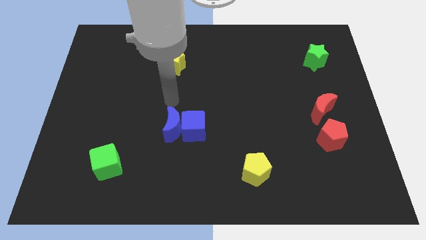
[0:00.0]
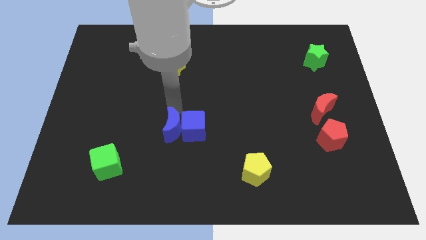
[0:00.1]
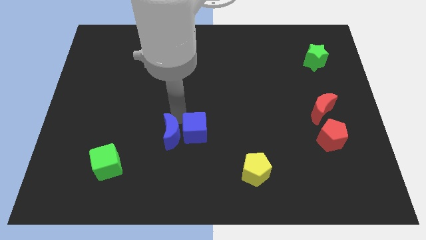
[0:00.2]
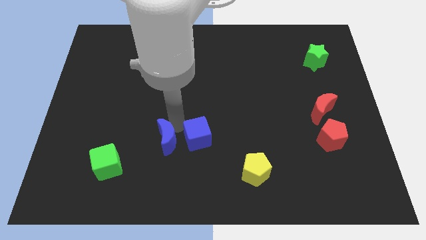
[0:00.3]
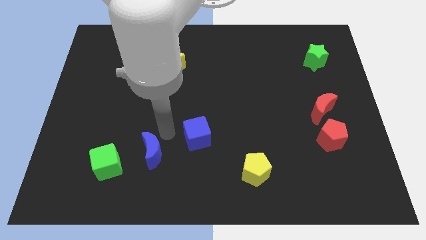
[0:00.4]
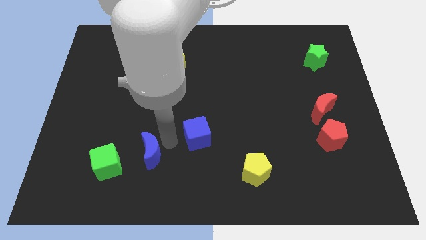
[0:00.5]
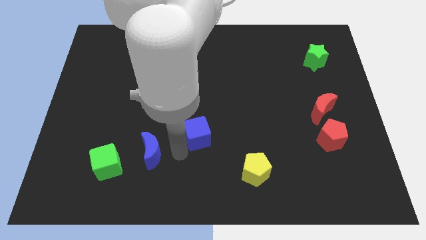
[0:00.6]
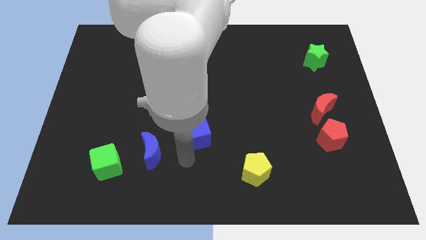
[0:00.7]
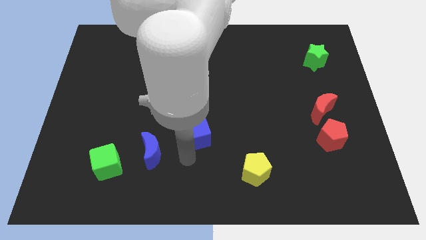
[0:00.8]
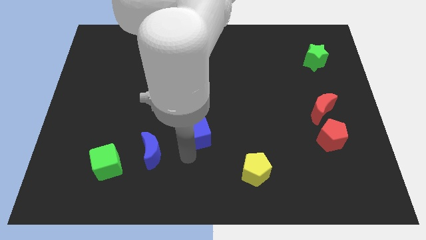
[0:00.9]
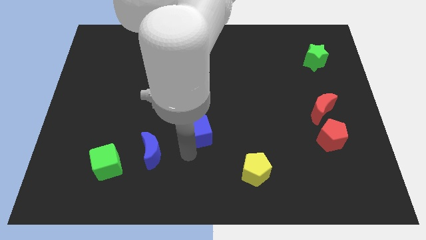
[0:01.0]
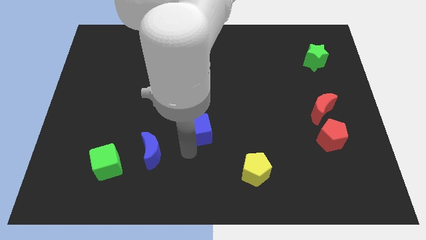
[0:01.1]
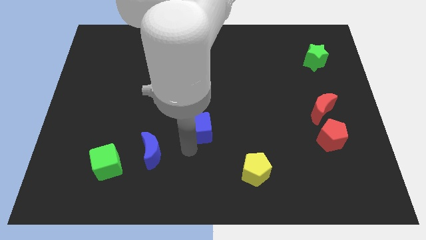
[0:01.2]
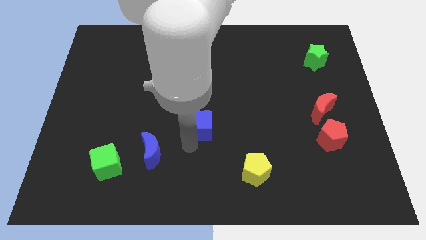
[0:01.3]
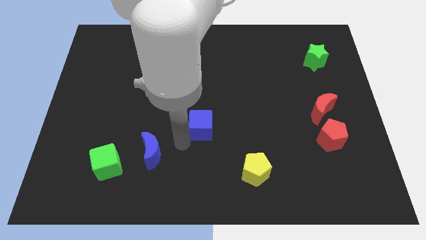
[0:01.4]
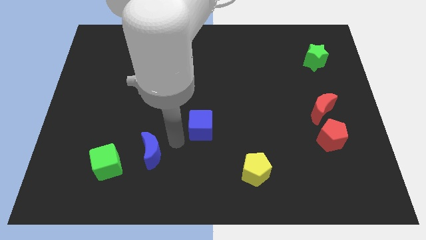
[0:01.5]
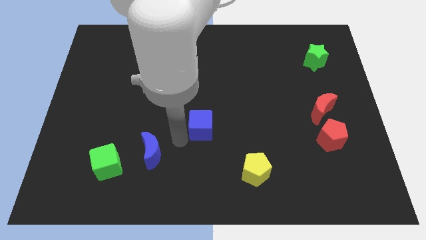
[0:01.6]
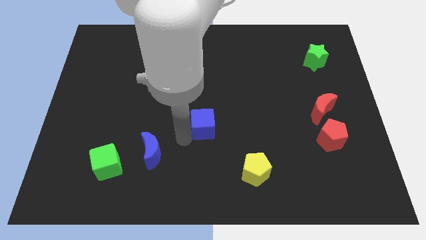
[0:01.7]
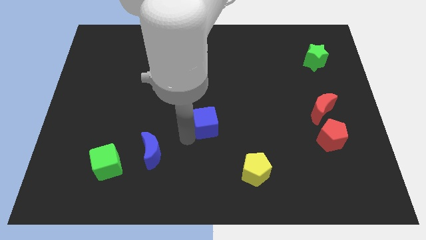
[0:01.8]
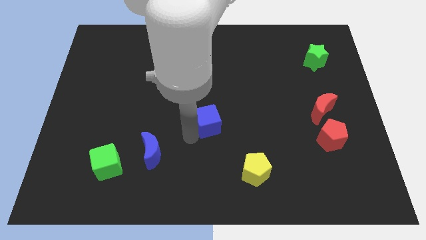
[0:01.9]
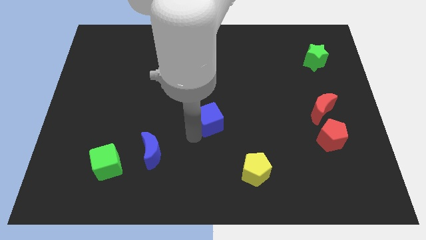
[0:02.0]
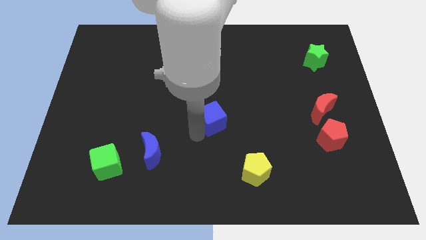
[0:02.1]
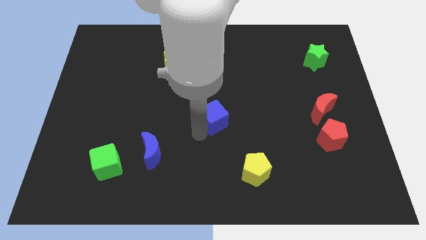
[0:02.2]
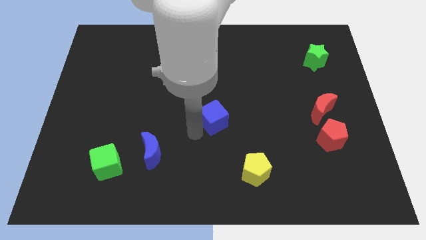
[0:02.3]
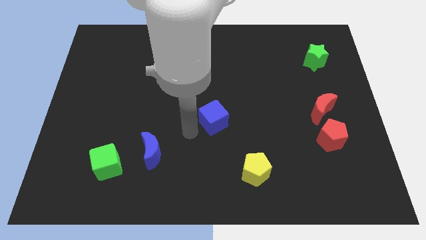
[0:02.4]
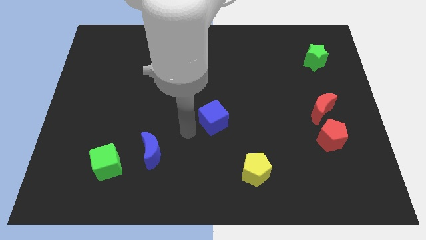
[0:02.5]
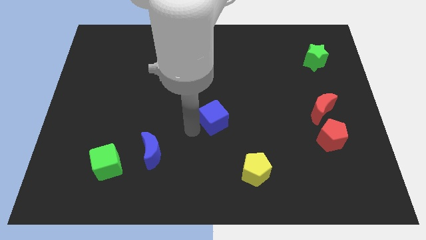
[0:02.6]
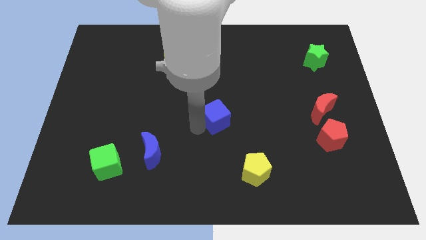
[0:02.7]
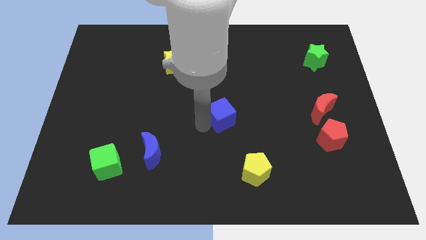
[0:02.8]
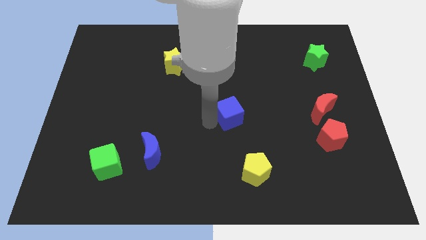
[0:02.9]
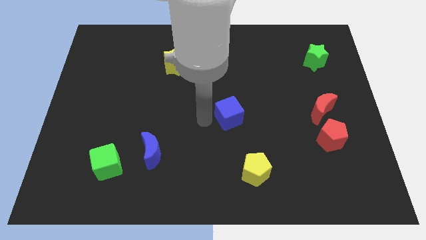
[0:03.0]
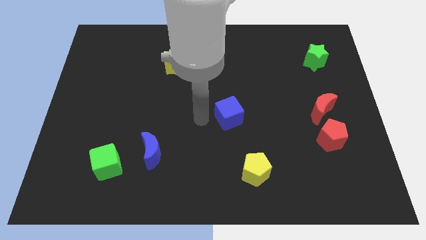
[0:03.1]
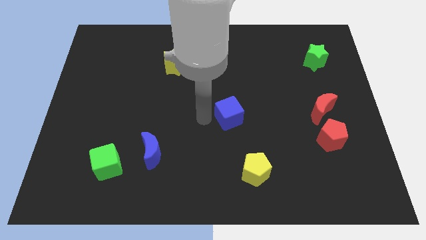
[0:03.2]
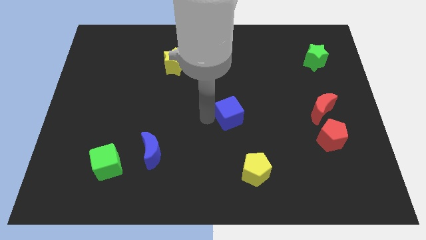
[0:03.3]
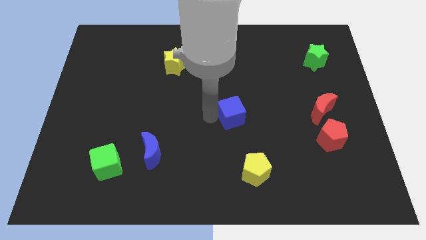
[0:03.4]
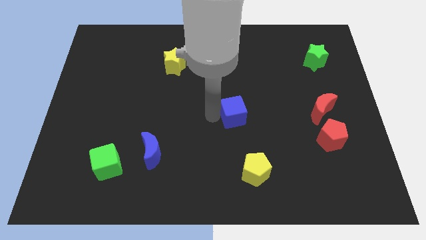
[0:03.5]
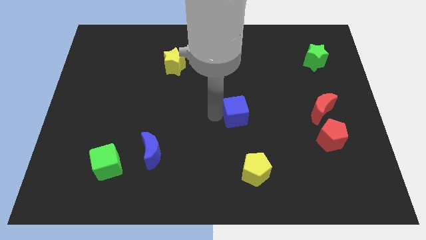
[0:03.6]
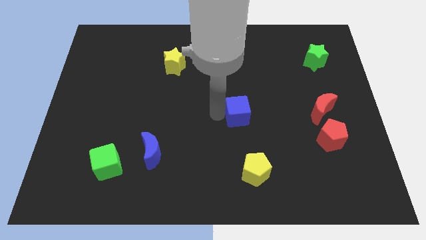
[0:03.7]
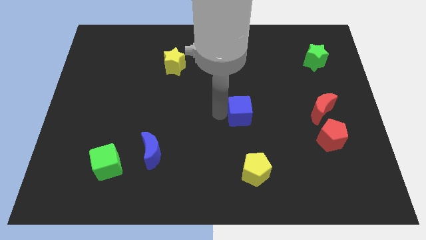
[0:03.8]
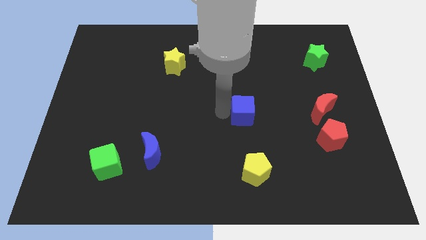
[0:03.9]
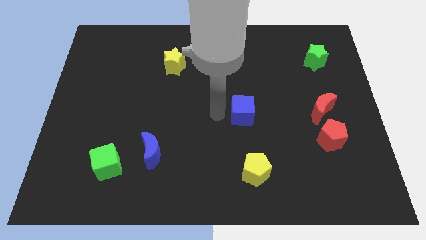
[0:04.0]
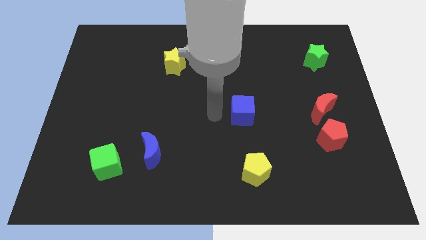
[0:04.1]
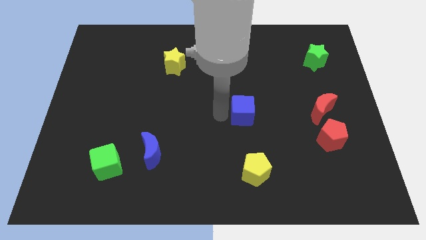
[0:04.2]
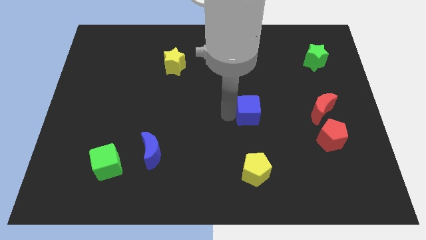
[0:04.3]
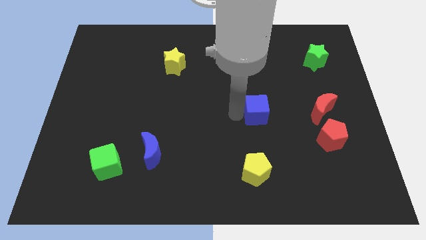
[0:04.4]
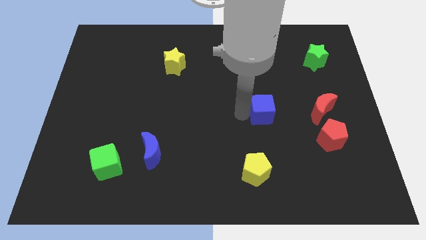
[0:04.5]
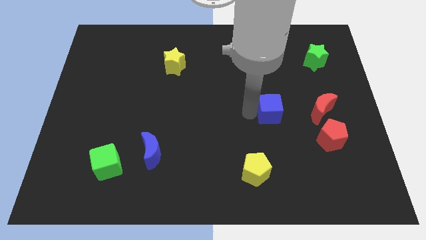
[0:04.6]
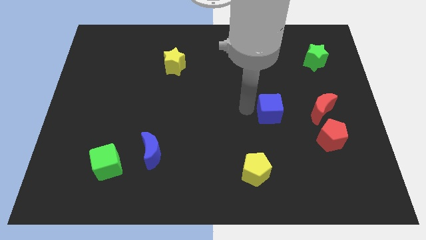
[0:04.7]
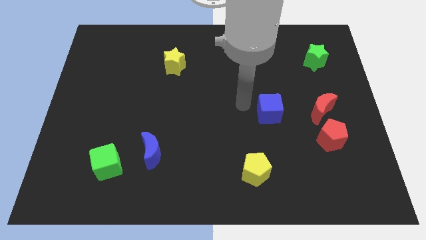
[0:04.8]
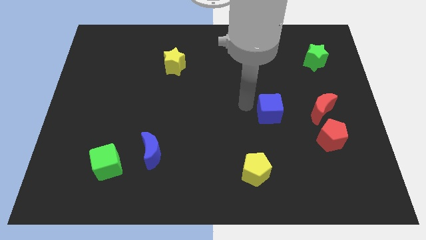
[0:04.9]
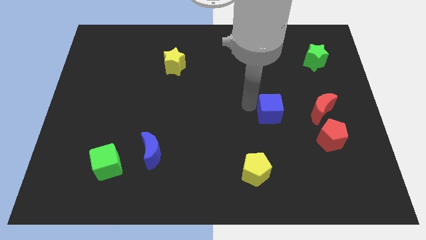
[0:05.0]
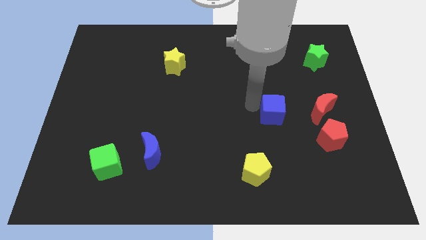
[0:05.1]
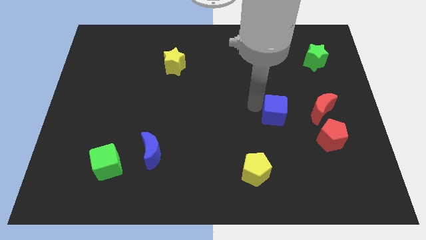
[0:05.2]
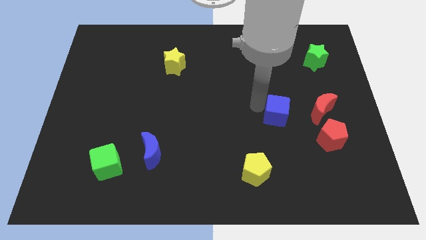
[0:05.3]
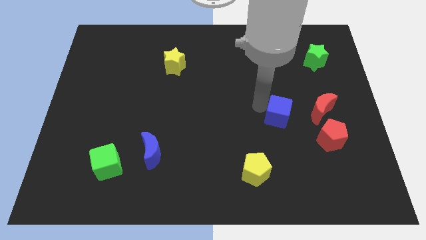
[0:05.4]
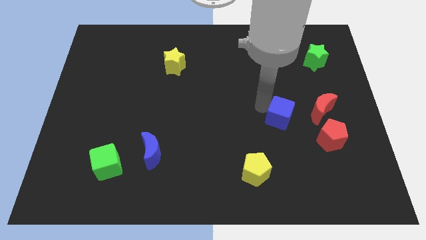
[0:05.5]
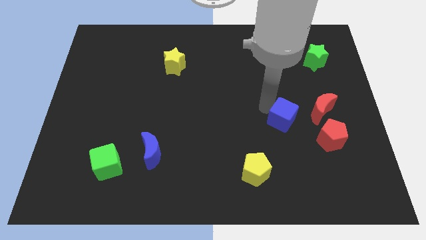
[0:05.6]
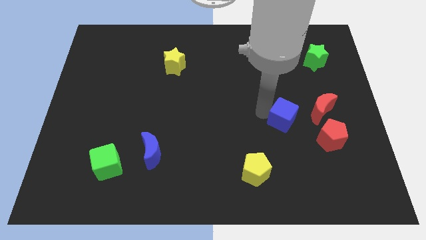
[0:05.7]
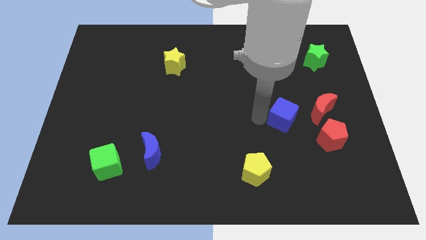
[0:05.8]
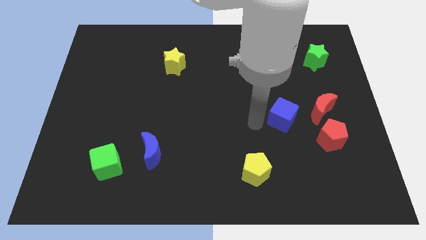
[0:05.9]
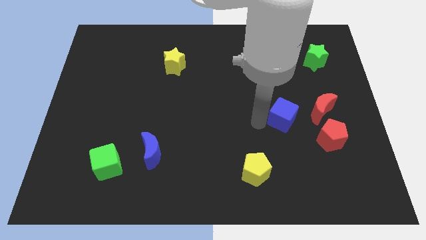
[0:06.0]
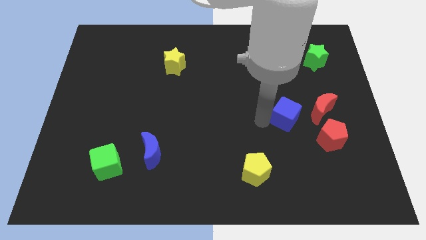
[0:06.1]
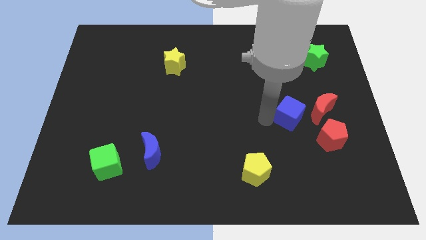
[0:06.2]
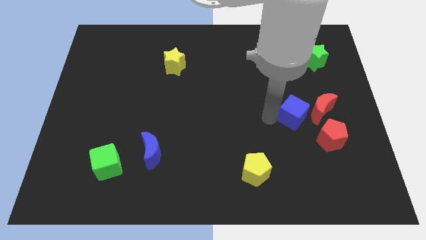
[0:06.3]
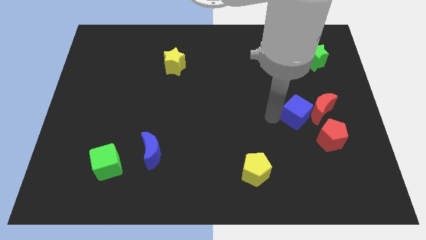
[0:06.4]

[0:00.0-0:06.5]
move the blue cube next to the red moon

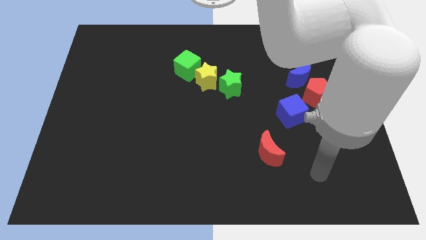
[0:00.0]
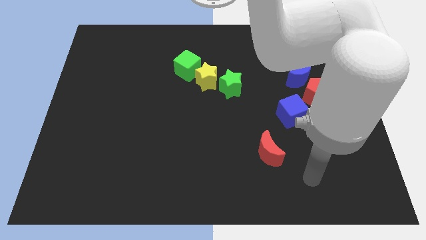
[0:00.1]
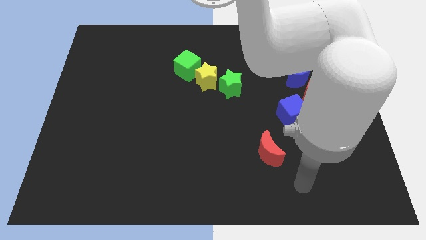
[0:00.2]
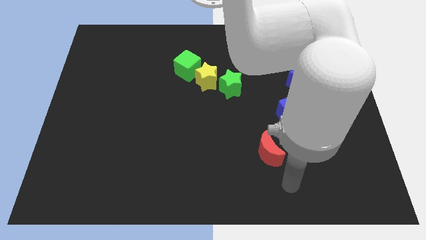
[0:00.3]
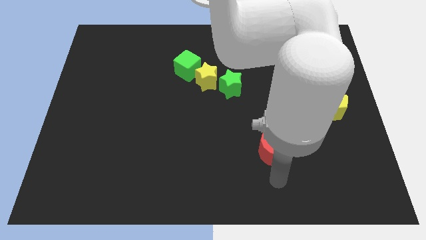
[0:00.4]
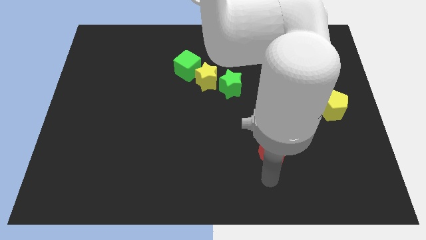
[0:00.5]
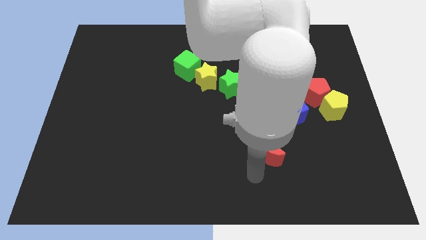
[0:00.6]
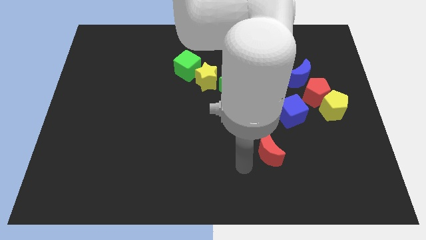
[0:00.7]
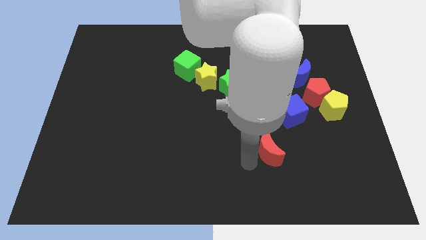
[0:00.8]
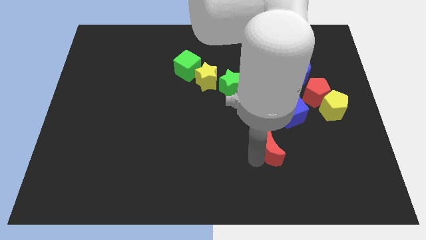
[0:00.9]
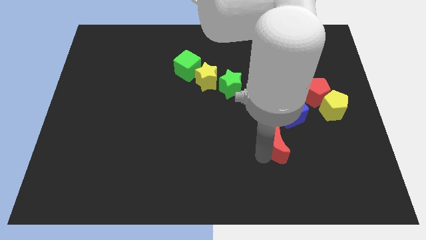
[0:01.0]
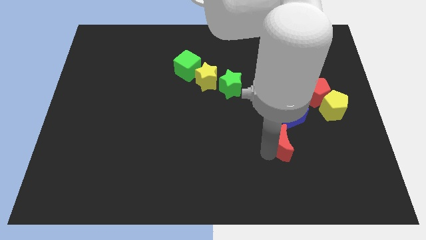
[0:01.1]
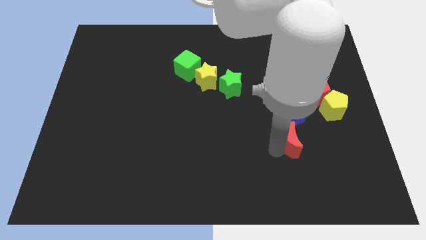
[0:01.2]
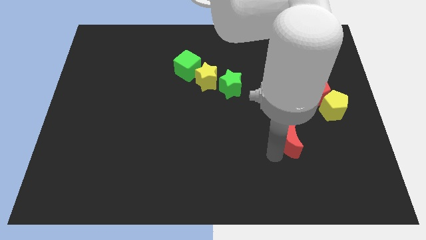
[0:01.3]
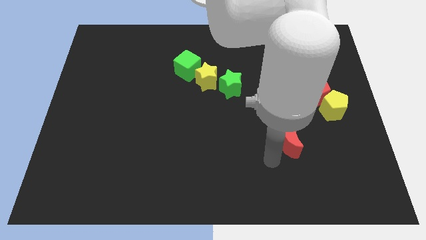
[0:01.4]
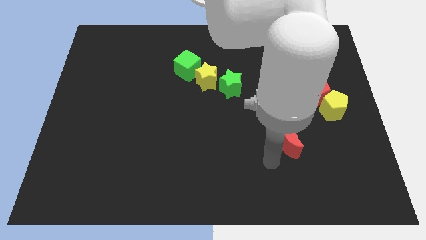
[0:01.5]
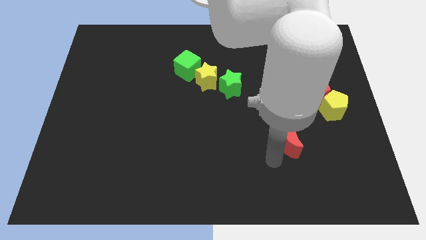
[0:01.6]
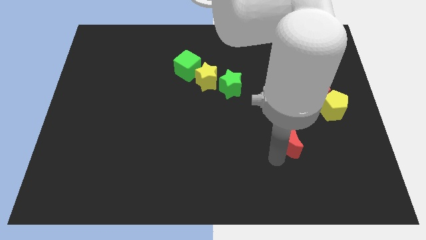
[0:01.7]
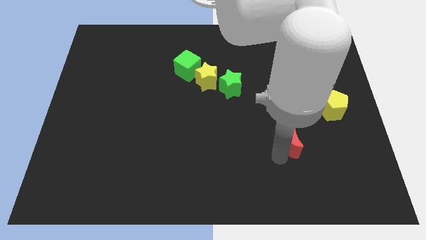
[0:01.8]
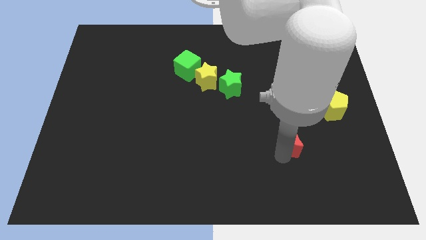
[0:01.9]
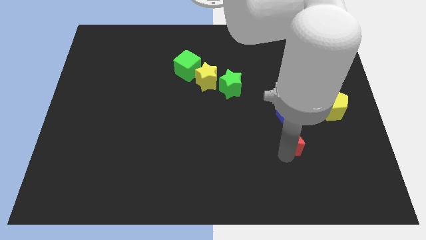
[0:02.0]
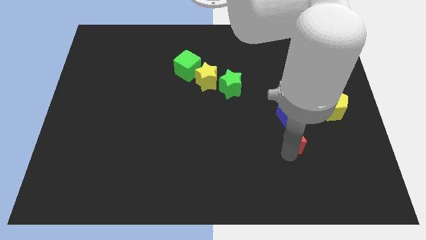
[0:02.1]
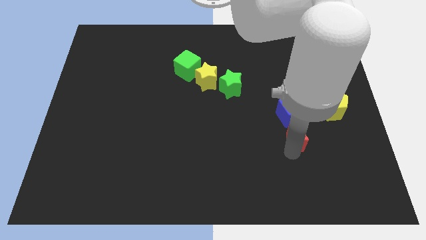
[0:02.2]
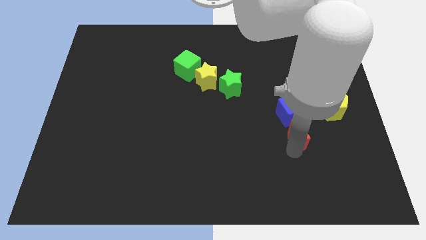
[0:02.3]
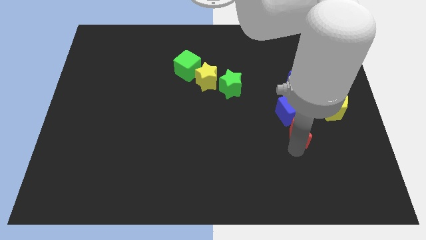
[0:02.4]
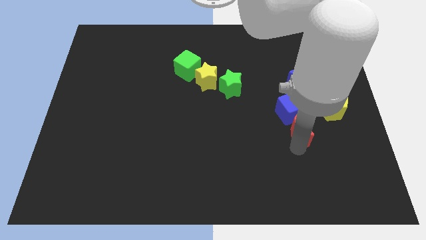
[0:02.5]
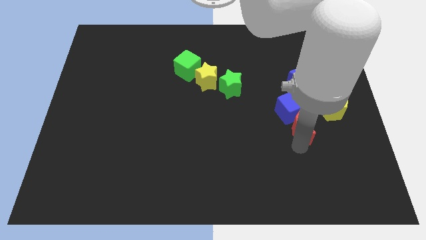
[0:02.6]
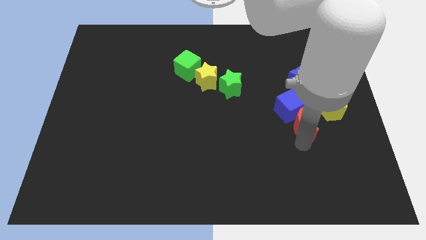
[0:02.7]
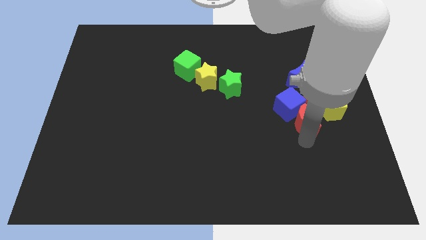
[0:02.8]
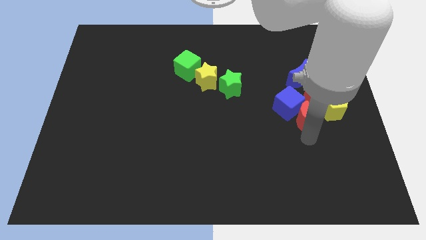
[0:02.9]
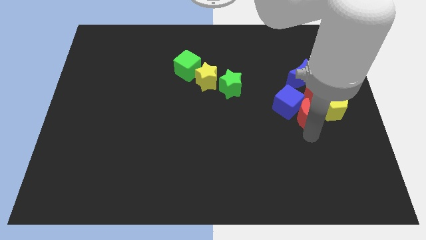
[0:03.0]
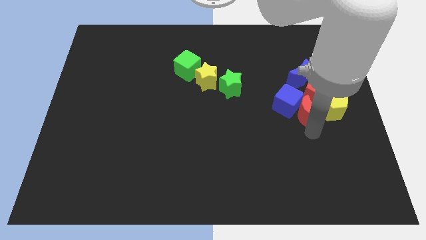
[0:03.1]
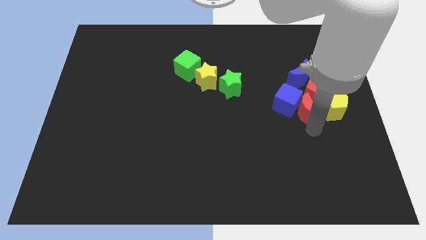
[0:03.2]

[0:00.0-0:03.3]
put the red moon next to the red pentagon
